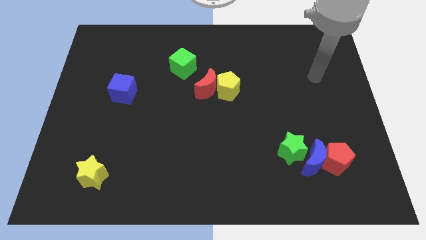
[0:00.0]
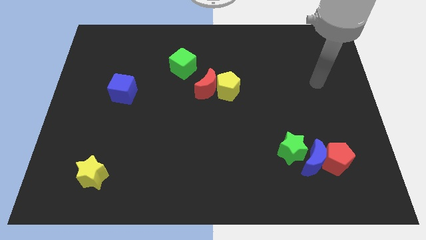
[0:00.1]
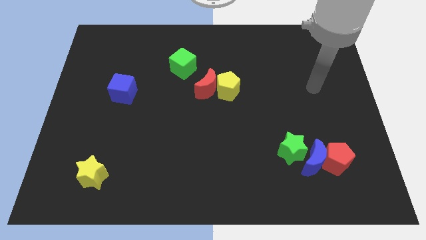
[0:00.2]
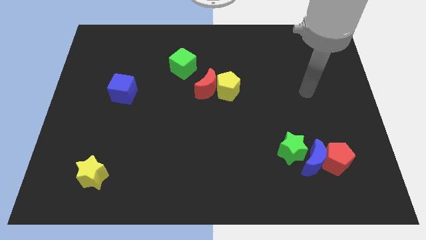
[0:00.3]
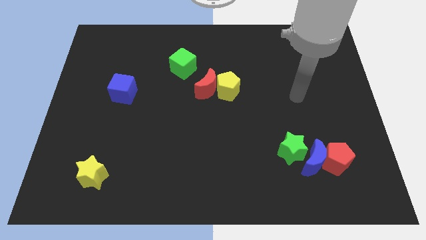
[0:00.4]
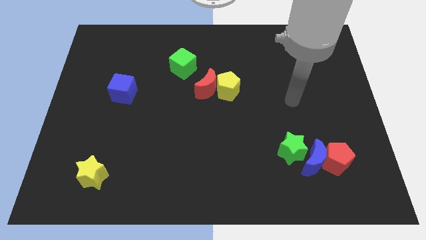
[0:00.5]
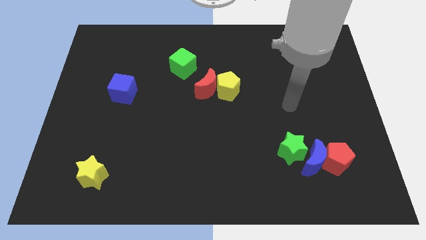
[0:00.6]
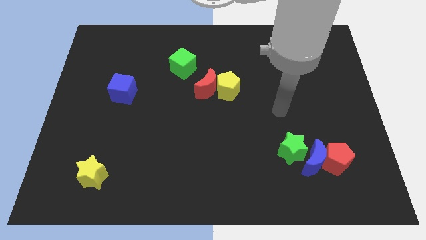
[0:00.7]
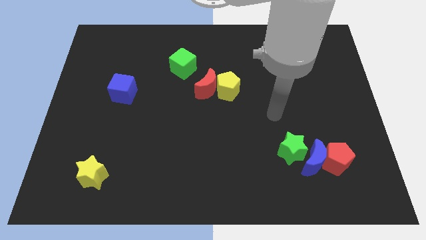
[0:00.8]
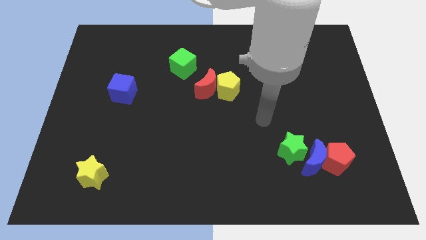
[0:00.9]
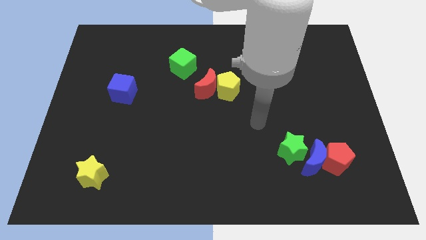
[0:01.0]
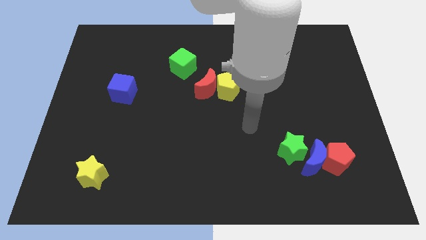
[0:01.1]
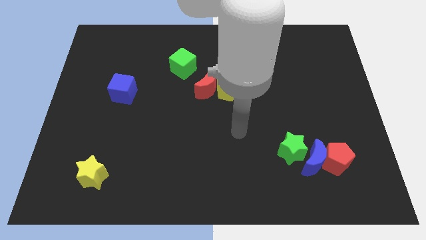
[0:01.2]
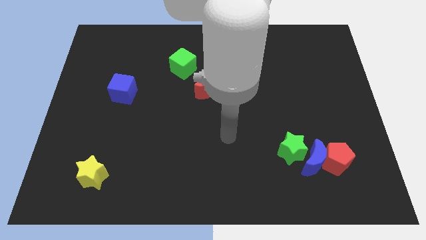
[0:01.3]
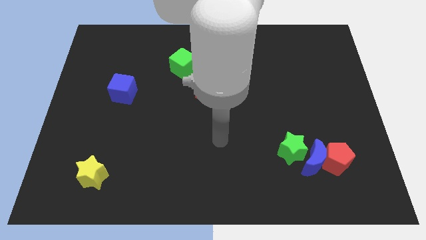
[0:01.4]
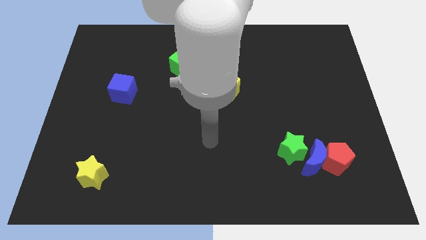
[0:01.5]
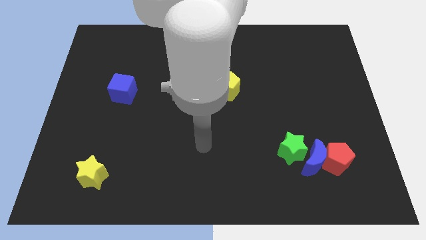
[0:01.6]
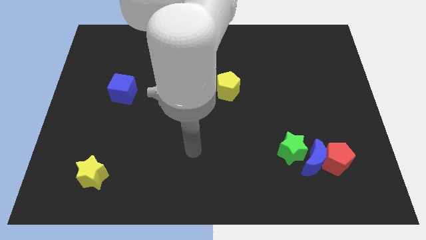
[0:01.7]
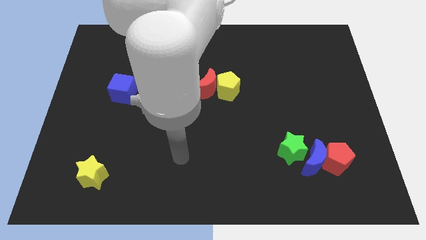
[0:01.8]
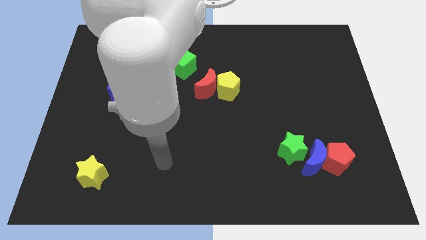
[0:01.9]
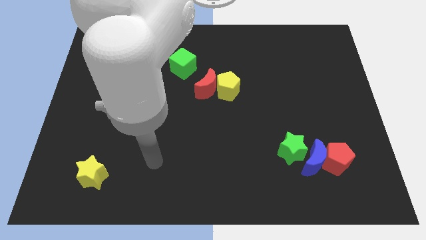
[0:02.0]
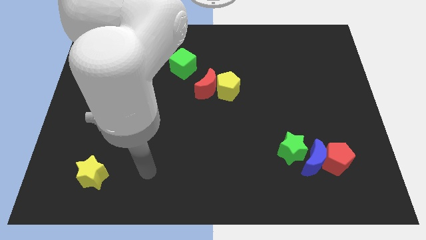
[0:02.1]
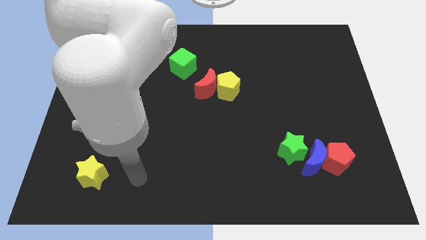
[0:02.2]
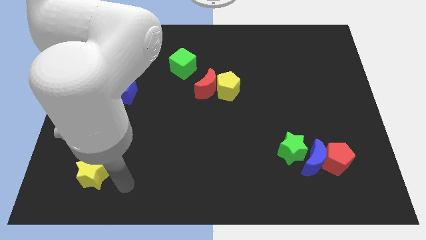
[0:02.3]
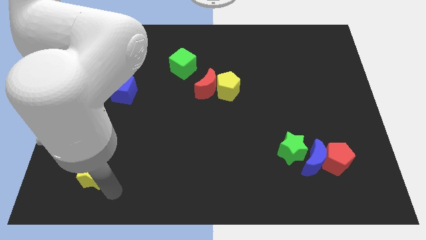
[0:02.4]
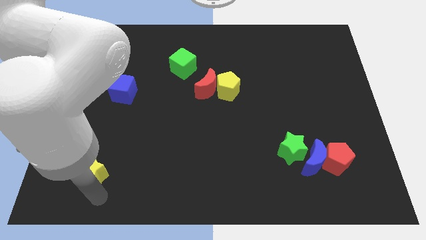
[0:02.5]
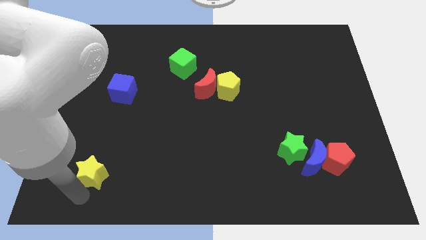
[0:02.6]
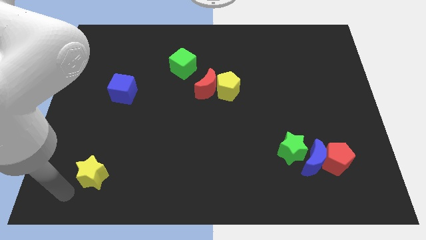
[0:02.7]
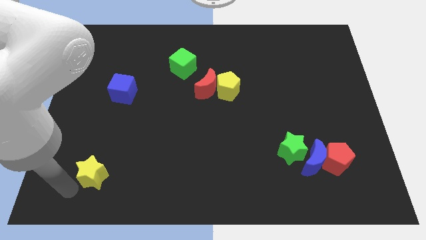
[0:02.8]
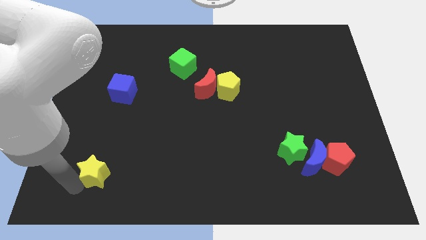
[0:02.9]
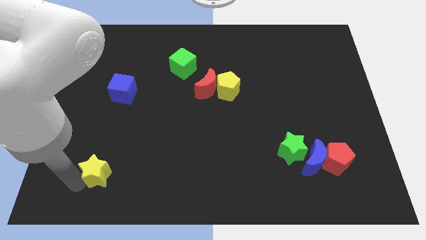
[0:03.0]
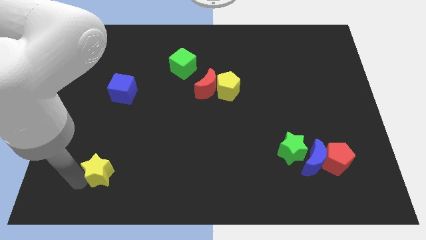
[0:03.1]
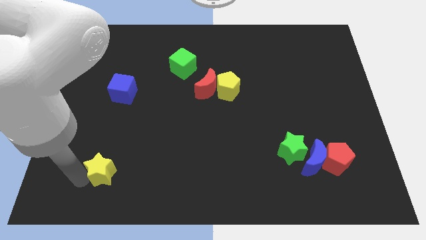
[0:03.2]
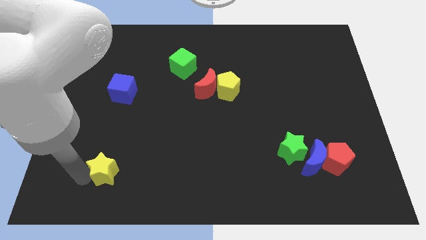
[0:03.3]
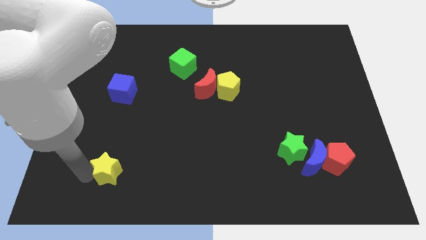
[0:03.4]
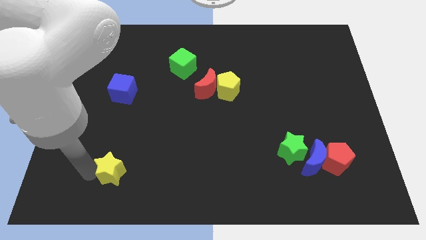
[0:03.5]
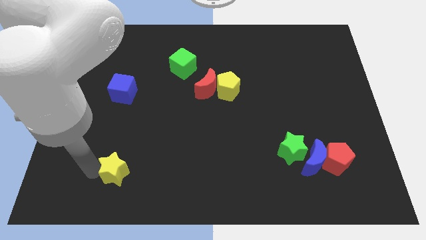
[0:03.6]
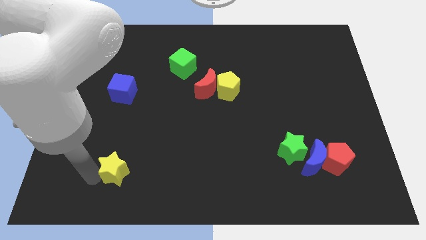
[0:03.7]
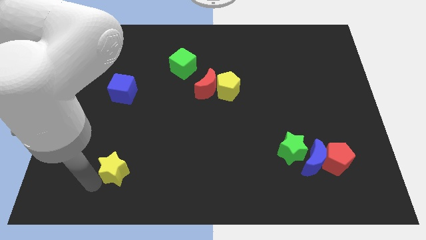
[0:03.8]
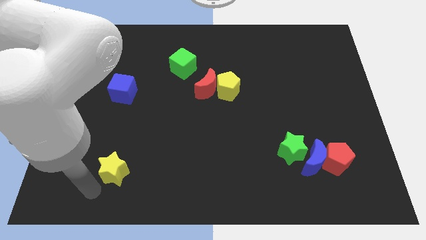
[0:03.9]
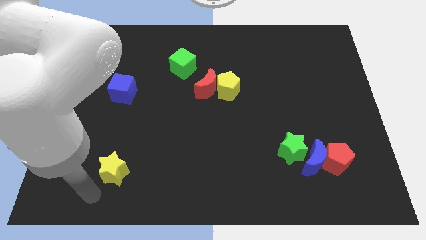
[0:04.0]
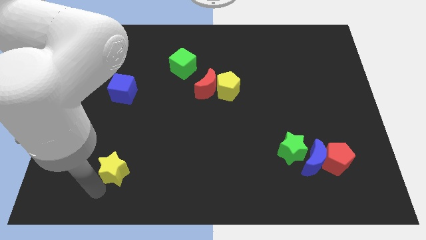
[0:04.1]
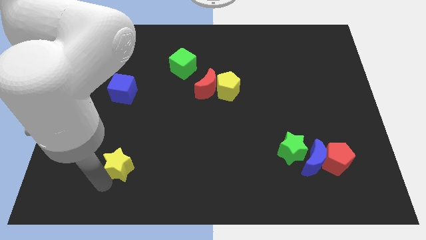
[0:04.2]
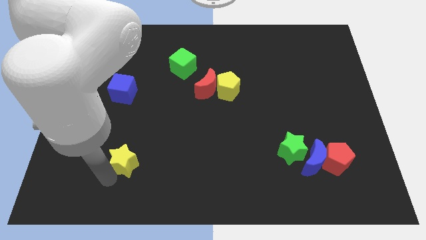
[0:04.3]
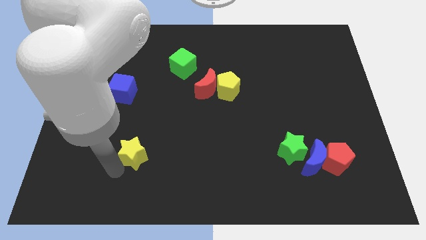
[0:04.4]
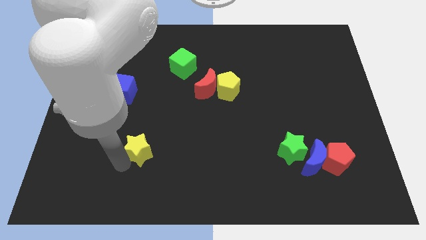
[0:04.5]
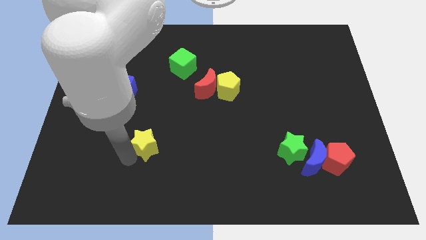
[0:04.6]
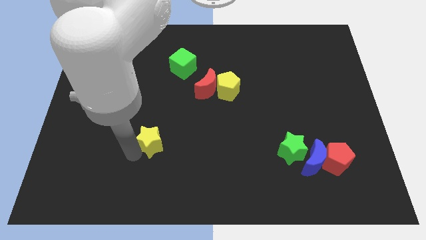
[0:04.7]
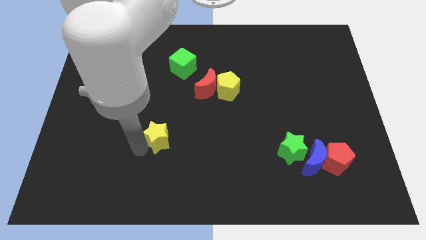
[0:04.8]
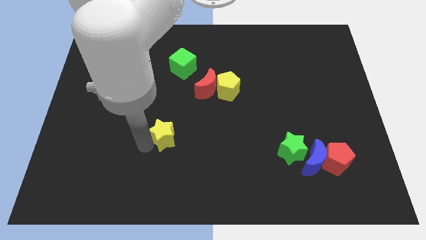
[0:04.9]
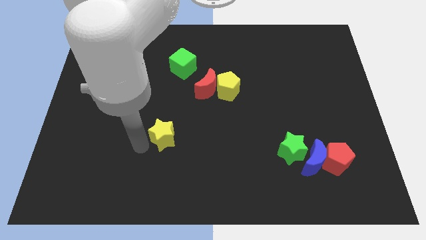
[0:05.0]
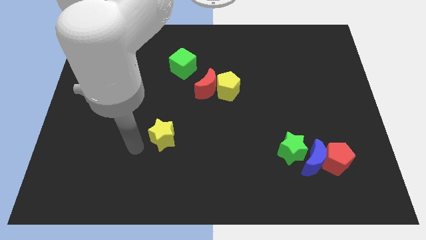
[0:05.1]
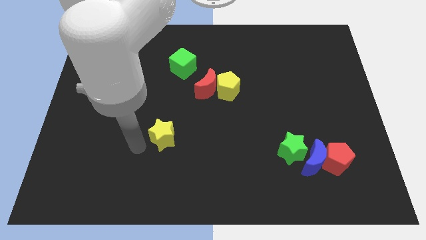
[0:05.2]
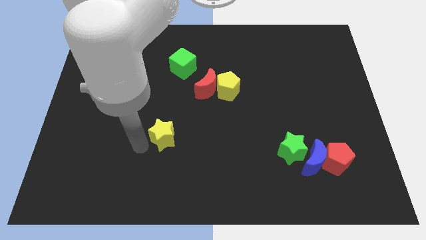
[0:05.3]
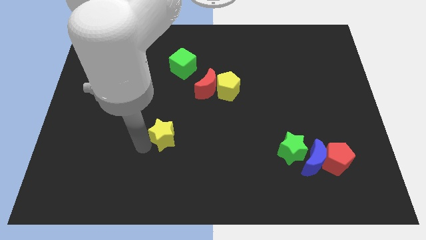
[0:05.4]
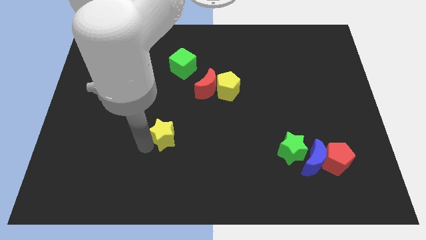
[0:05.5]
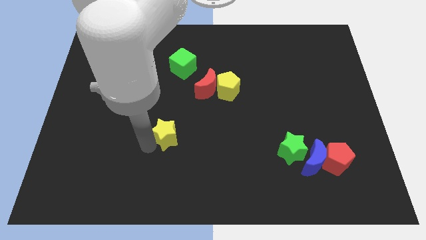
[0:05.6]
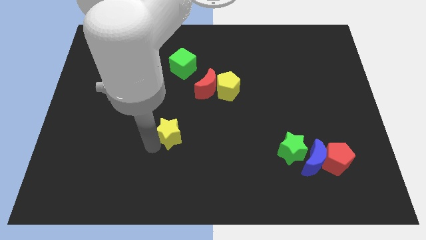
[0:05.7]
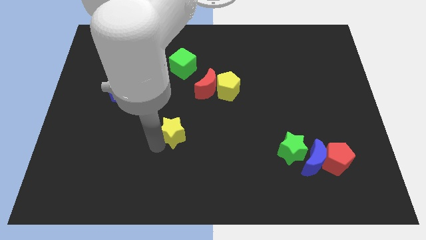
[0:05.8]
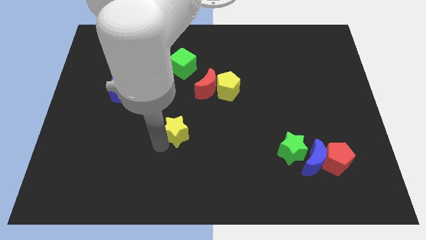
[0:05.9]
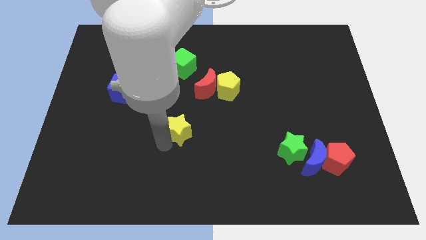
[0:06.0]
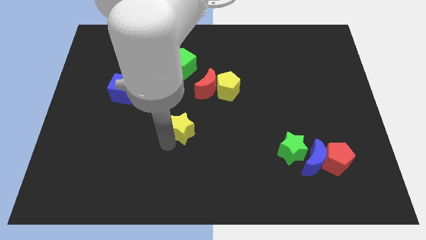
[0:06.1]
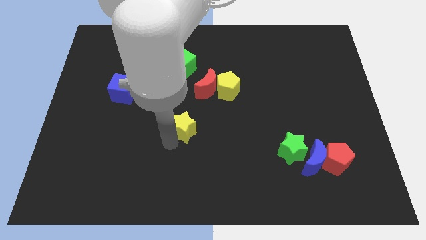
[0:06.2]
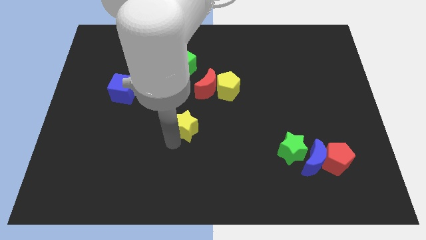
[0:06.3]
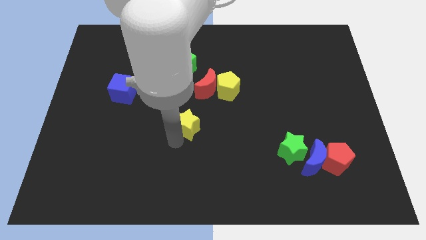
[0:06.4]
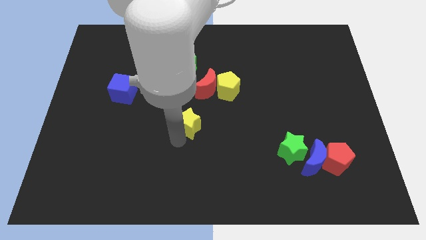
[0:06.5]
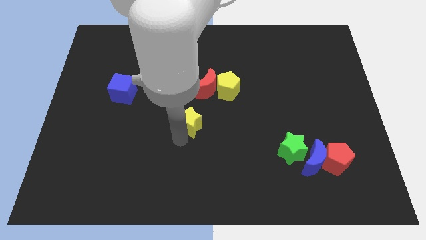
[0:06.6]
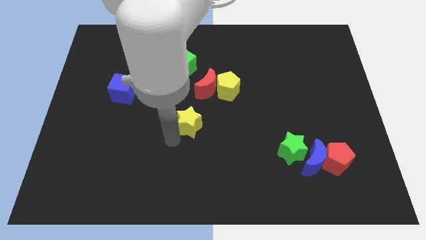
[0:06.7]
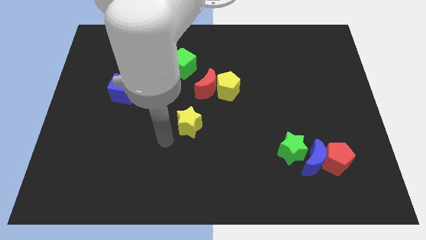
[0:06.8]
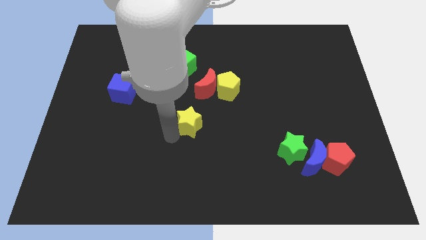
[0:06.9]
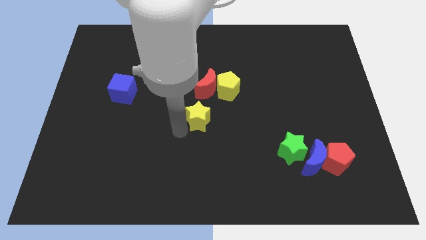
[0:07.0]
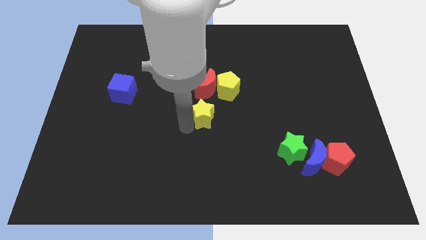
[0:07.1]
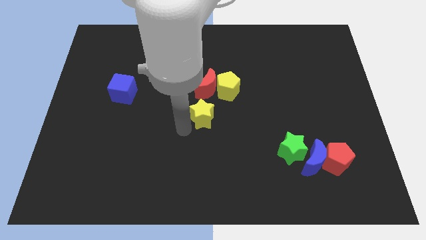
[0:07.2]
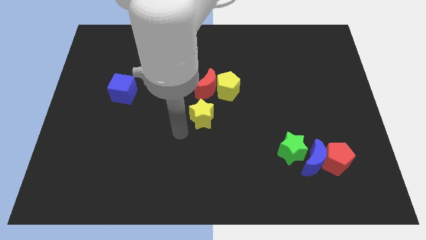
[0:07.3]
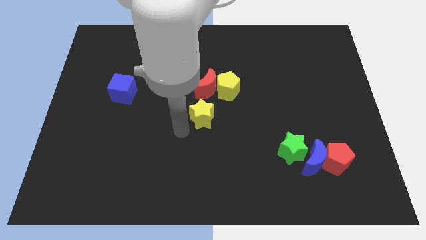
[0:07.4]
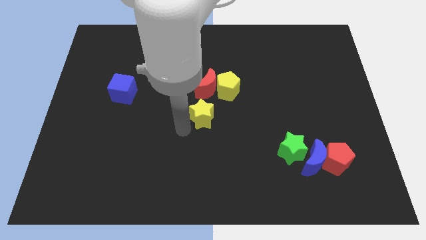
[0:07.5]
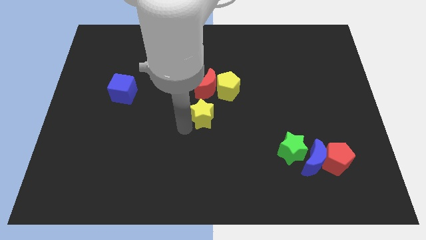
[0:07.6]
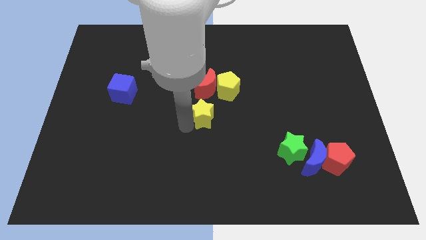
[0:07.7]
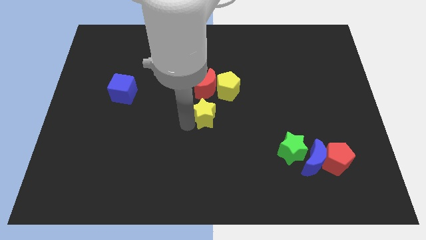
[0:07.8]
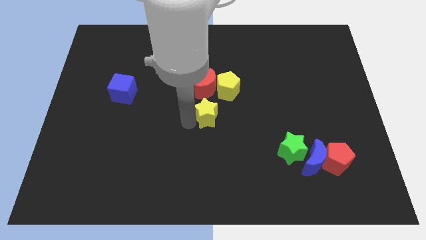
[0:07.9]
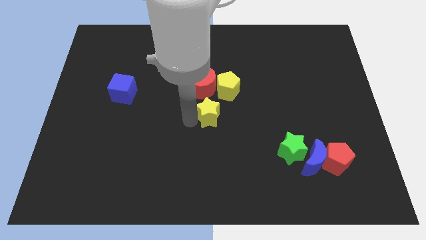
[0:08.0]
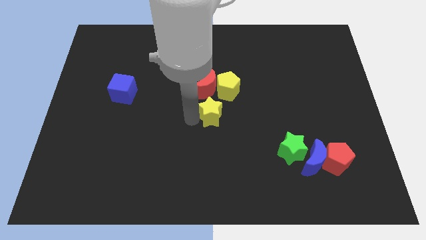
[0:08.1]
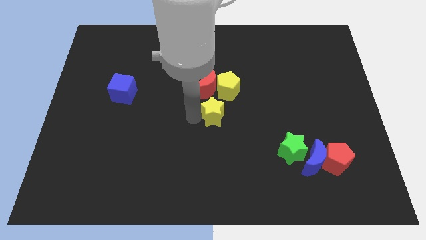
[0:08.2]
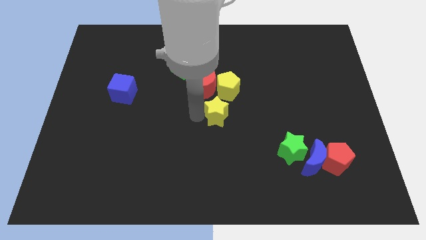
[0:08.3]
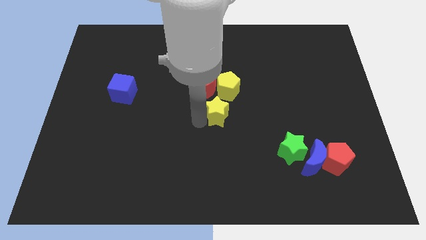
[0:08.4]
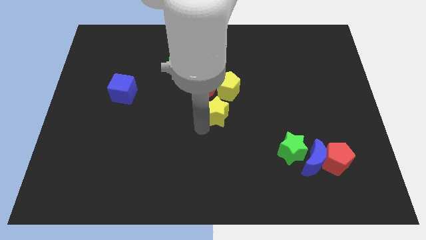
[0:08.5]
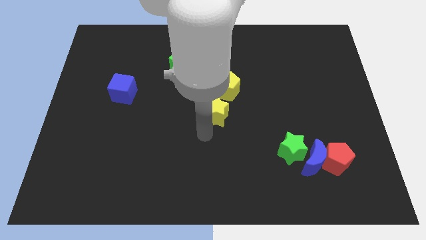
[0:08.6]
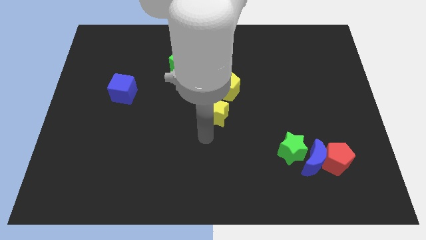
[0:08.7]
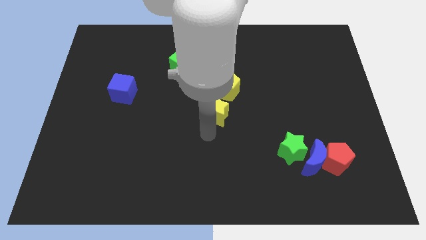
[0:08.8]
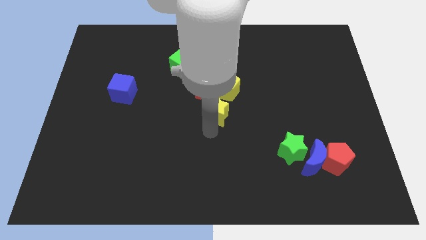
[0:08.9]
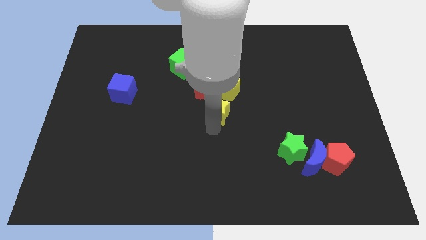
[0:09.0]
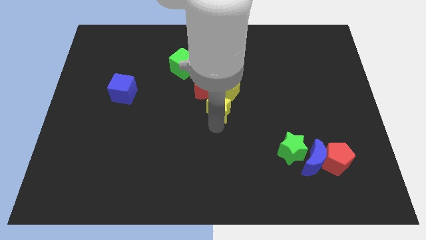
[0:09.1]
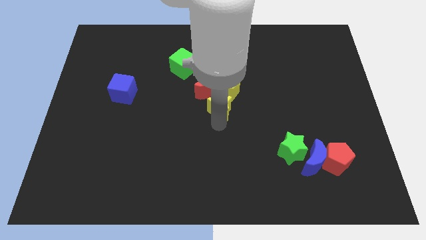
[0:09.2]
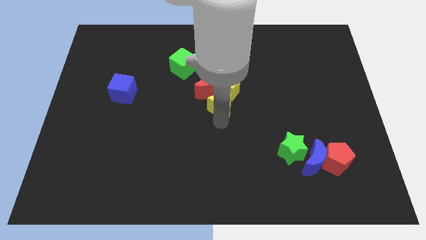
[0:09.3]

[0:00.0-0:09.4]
move the yellow star next to the yellow pentagon
